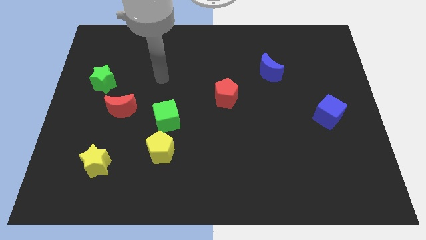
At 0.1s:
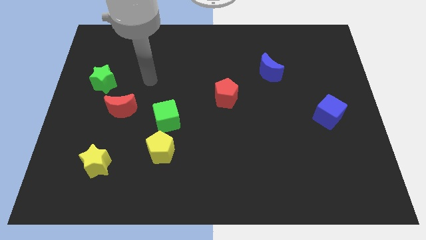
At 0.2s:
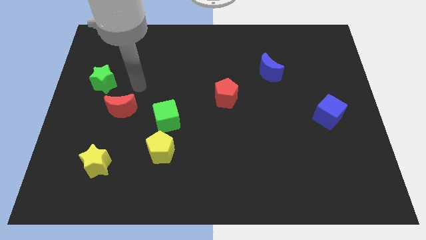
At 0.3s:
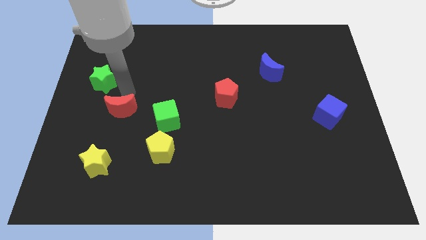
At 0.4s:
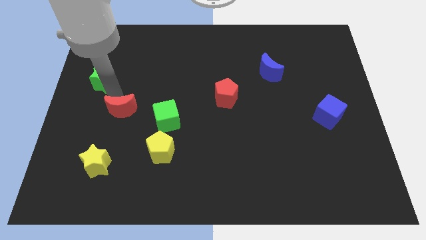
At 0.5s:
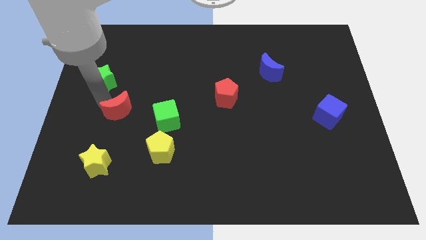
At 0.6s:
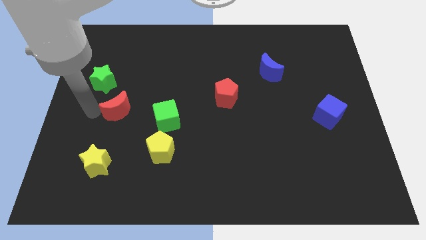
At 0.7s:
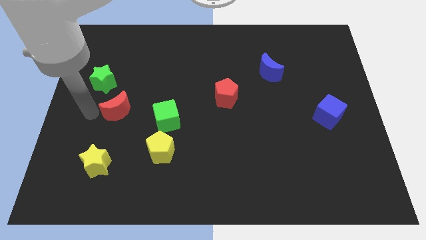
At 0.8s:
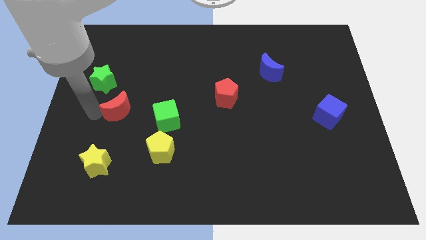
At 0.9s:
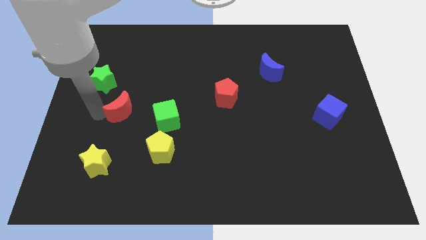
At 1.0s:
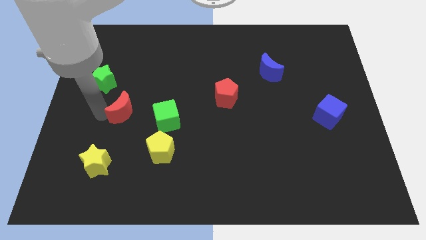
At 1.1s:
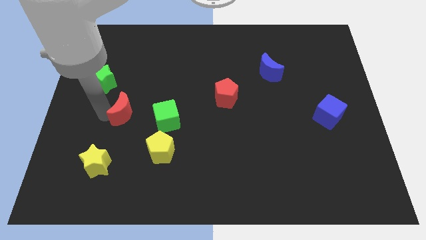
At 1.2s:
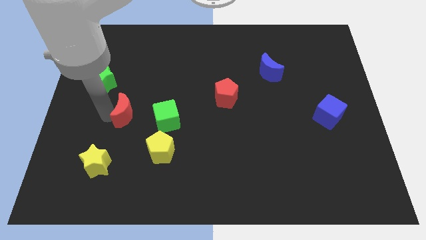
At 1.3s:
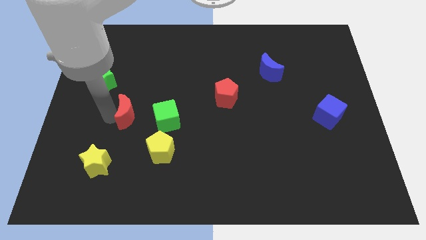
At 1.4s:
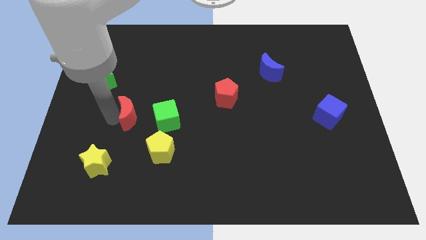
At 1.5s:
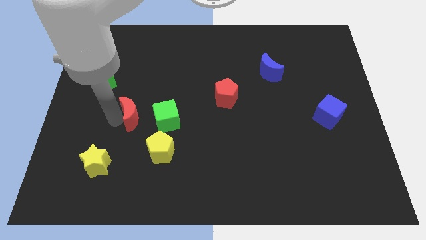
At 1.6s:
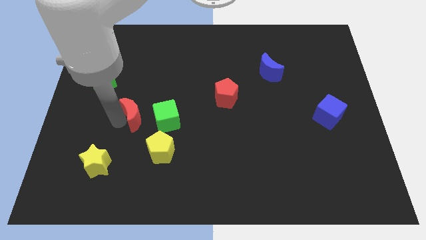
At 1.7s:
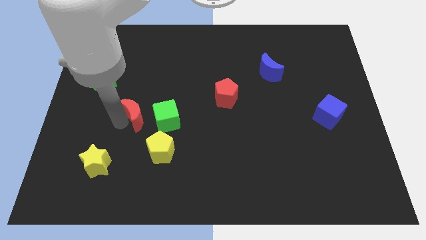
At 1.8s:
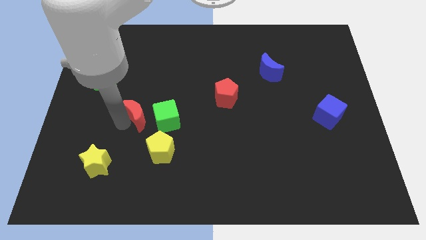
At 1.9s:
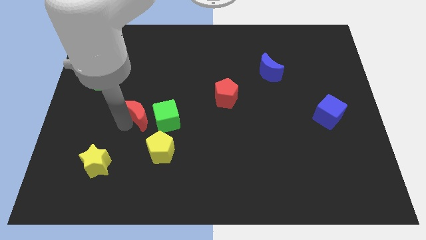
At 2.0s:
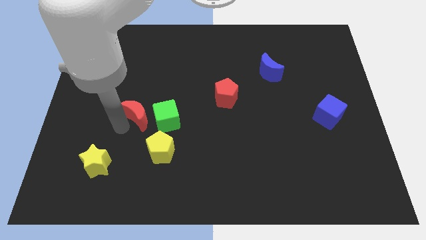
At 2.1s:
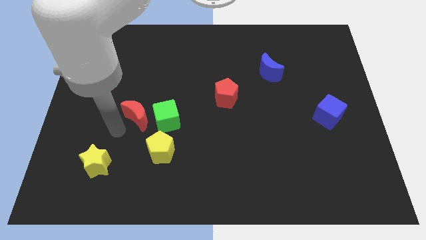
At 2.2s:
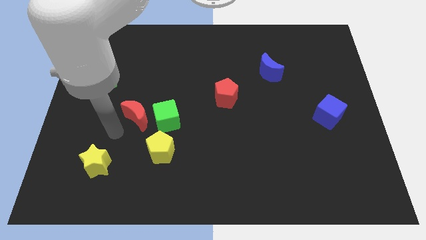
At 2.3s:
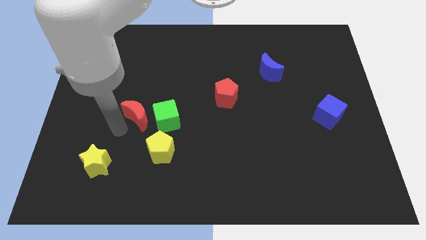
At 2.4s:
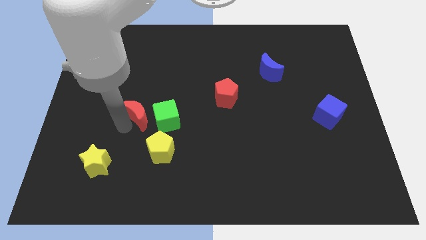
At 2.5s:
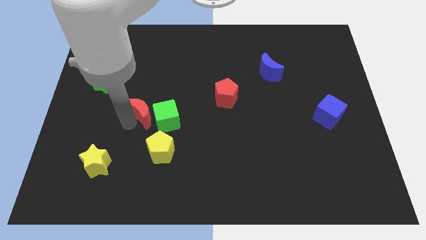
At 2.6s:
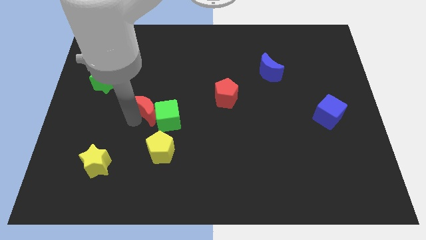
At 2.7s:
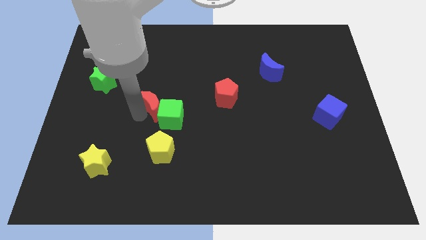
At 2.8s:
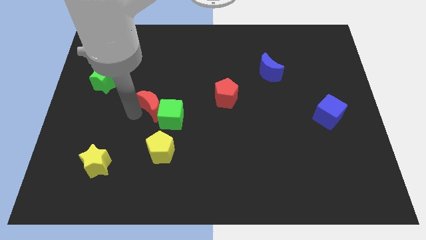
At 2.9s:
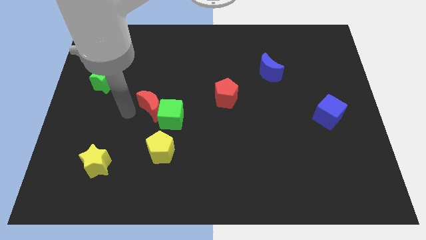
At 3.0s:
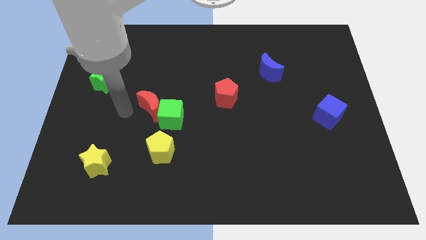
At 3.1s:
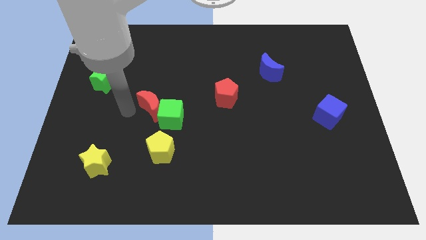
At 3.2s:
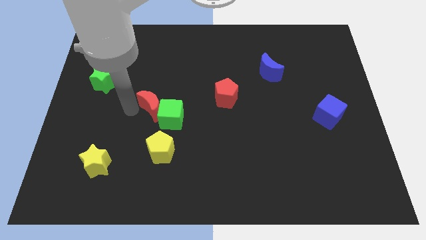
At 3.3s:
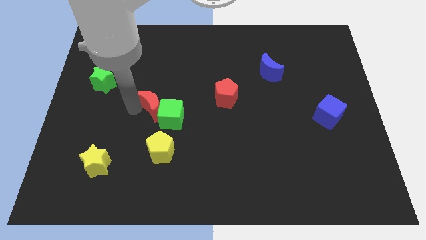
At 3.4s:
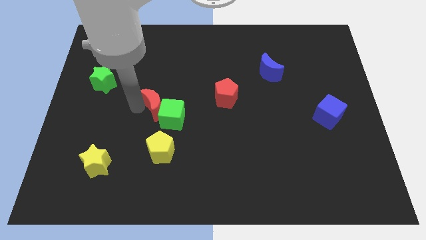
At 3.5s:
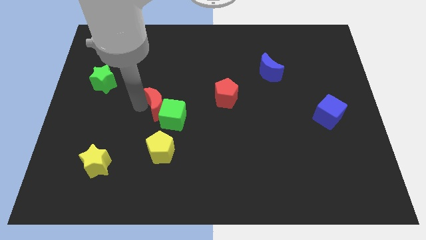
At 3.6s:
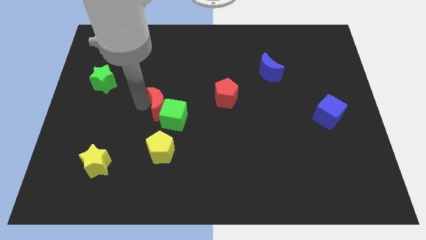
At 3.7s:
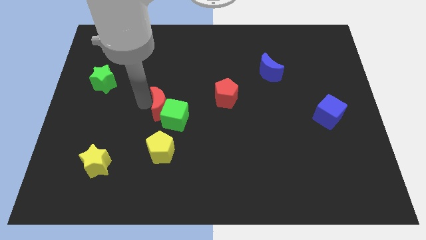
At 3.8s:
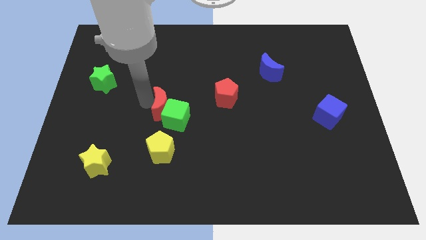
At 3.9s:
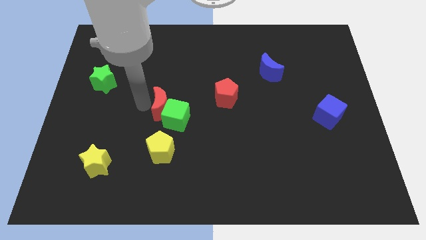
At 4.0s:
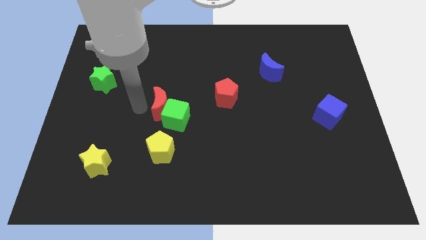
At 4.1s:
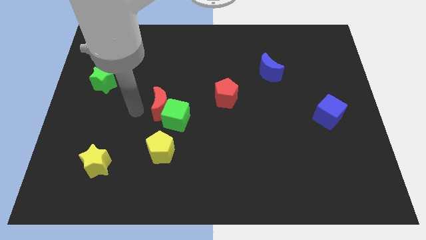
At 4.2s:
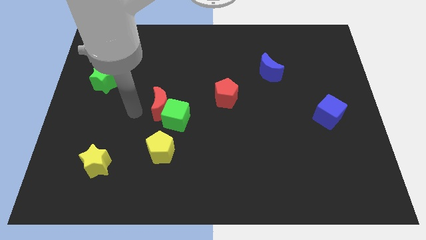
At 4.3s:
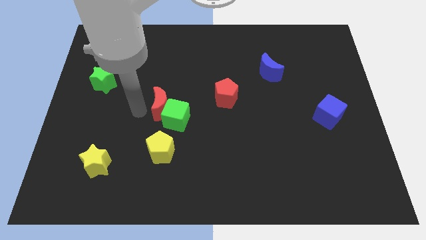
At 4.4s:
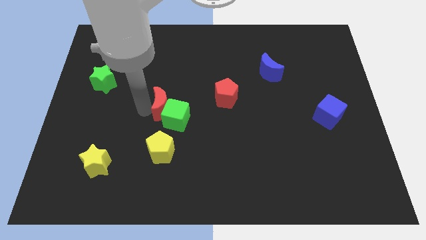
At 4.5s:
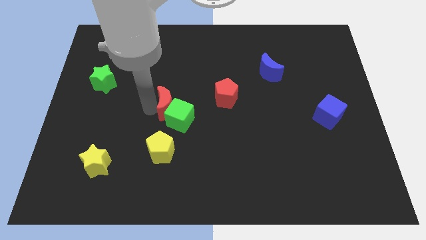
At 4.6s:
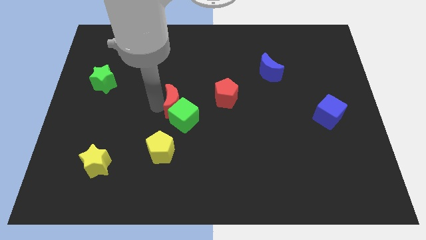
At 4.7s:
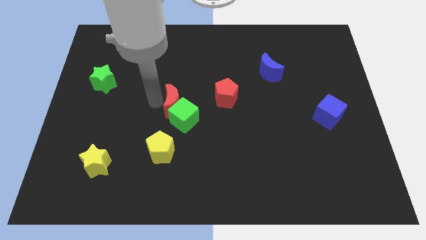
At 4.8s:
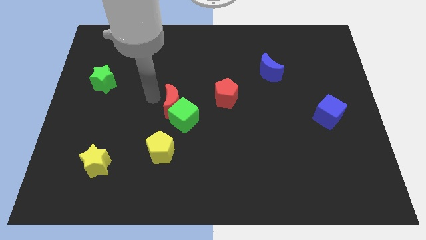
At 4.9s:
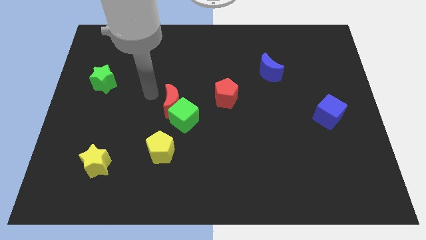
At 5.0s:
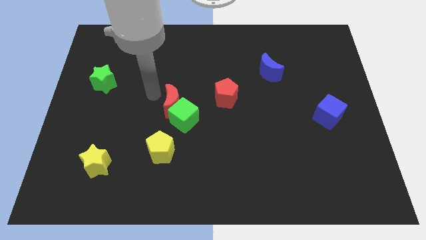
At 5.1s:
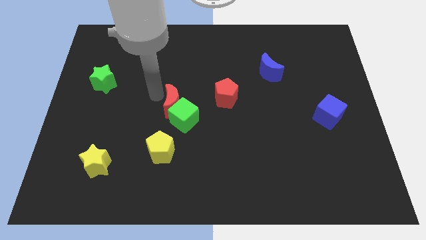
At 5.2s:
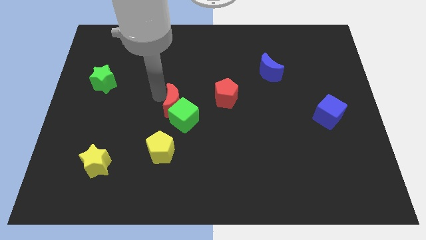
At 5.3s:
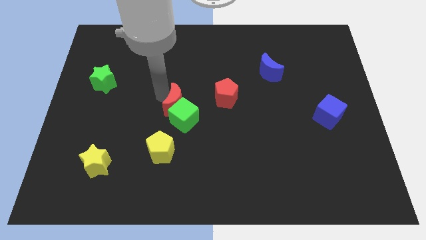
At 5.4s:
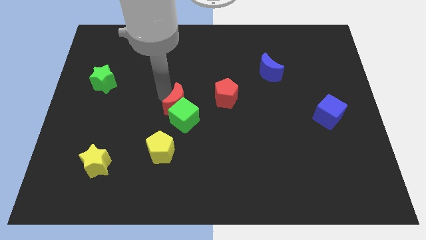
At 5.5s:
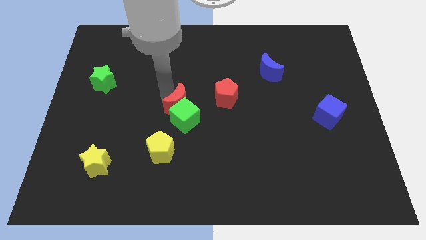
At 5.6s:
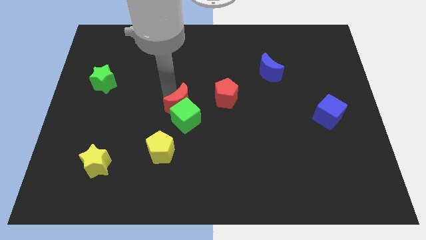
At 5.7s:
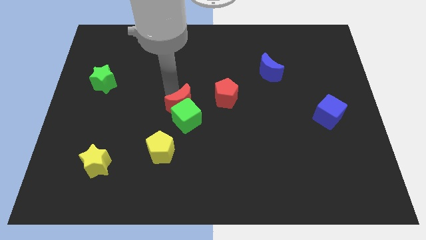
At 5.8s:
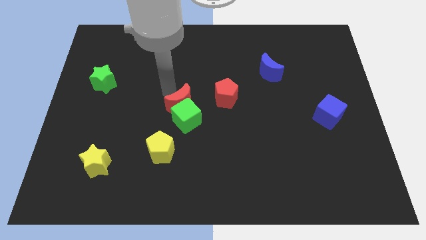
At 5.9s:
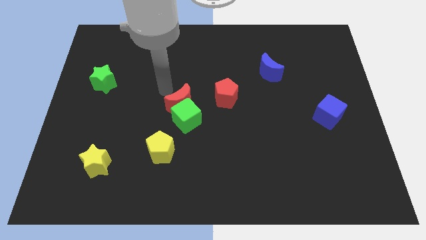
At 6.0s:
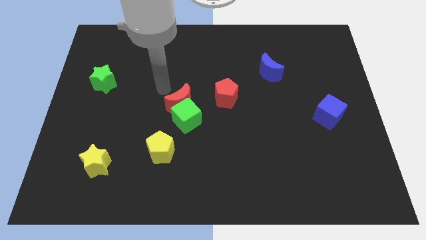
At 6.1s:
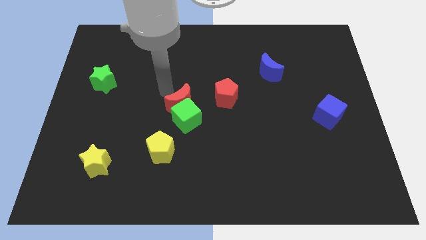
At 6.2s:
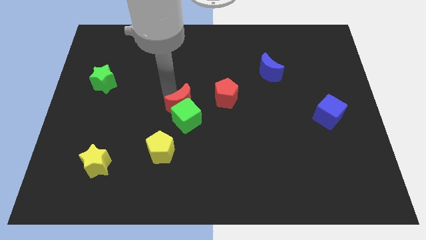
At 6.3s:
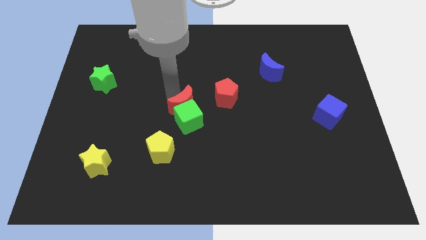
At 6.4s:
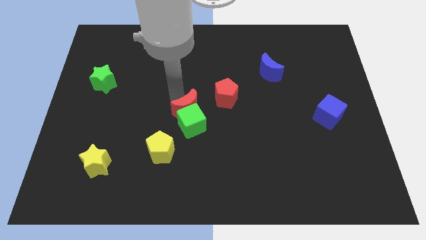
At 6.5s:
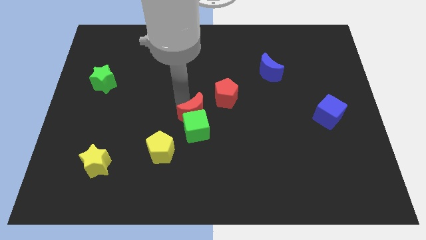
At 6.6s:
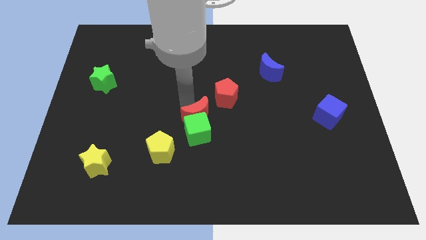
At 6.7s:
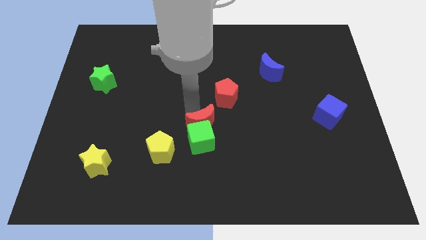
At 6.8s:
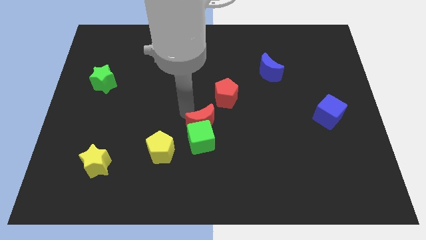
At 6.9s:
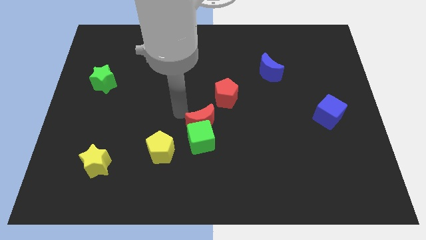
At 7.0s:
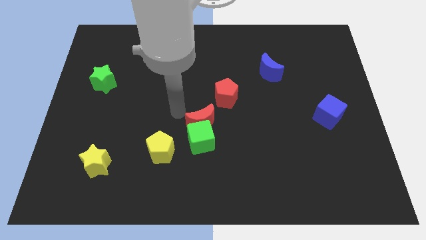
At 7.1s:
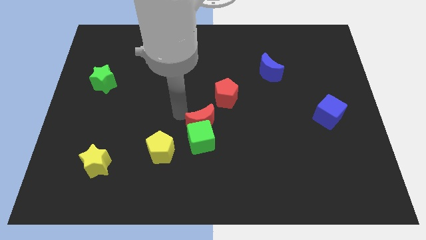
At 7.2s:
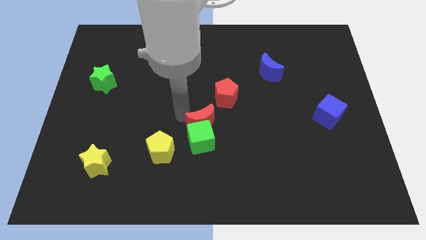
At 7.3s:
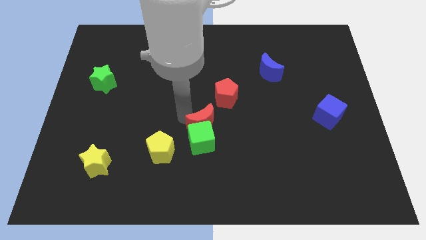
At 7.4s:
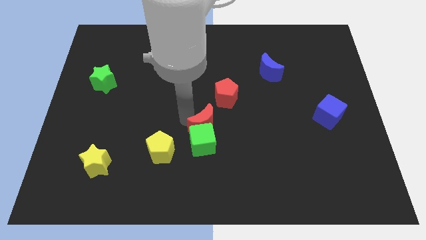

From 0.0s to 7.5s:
put the red moon to the bottom of the red pentagon
